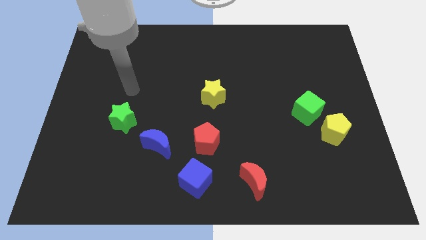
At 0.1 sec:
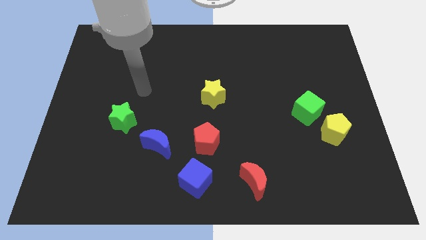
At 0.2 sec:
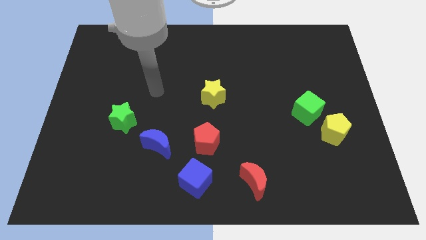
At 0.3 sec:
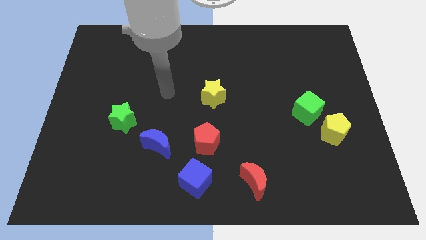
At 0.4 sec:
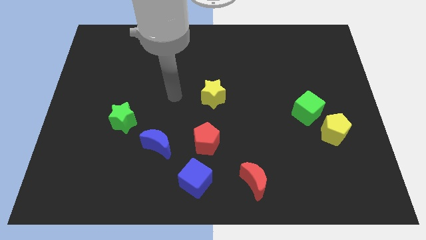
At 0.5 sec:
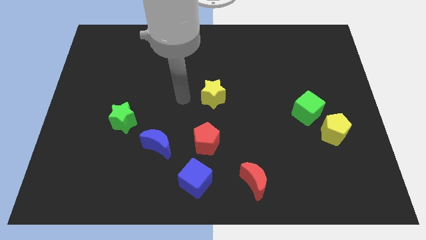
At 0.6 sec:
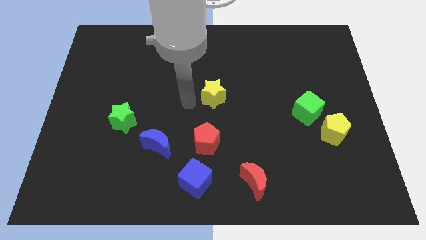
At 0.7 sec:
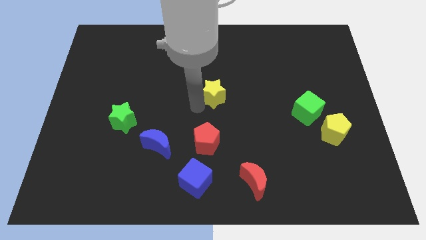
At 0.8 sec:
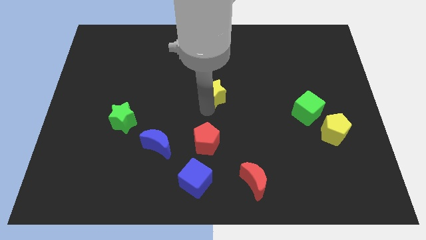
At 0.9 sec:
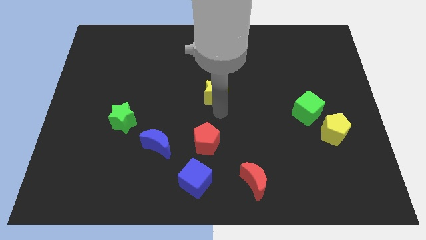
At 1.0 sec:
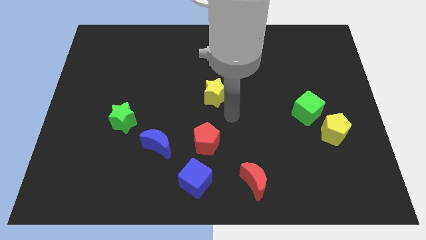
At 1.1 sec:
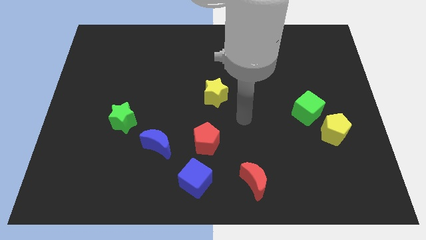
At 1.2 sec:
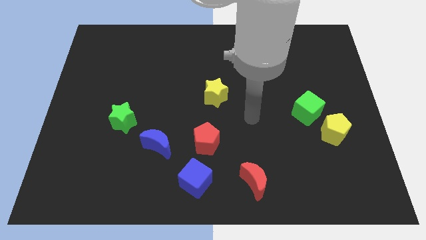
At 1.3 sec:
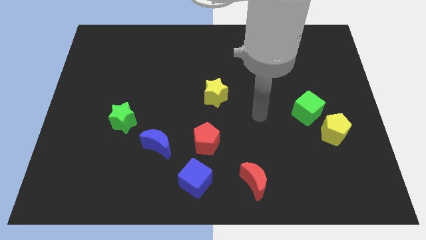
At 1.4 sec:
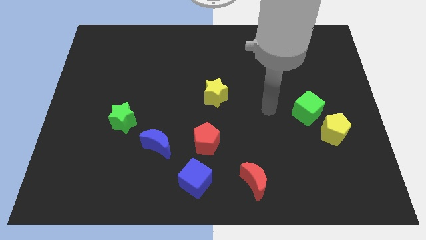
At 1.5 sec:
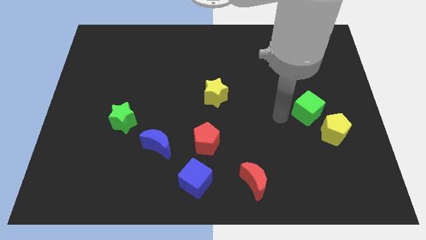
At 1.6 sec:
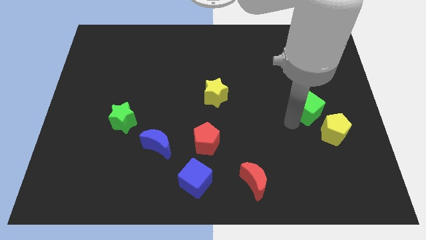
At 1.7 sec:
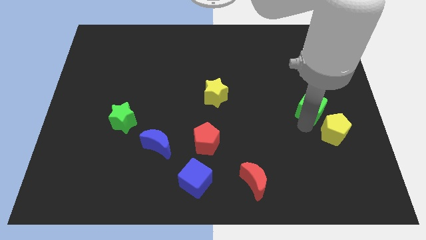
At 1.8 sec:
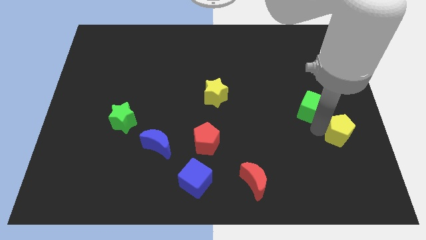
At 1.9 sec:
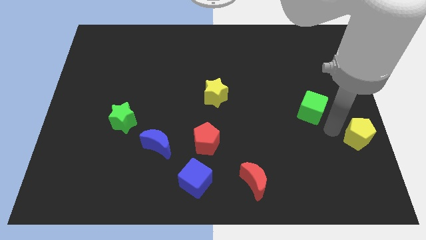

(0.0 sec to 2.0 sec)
pull the green cube apart from the yellow pentagon

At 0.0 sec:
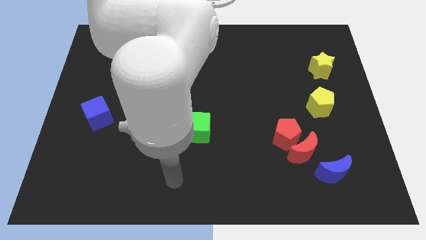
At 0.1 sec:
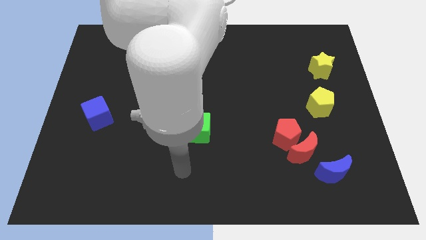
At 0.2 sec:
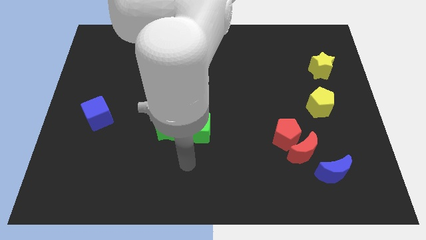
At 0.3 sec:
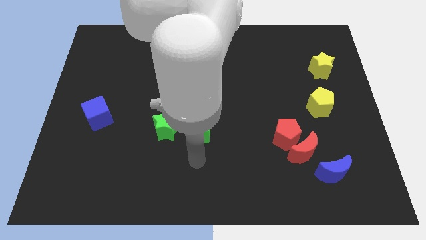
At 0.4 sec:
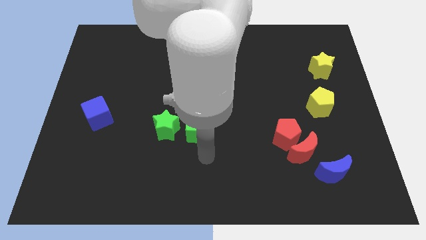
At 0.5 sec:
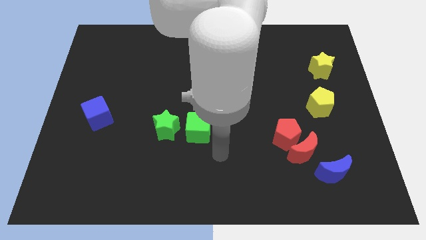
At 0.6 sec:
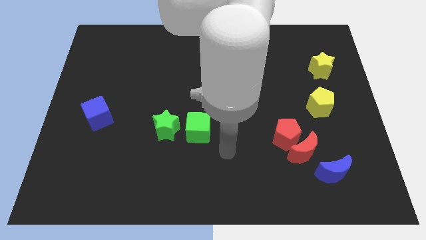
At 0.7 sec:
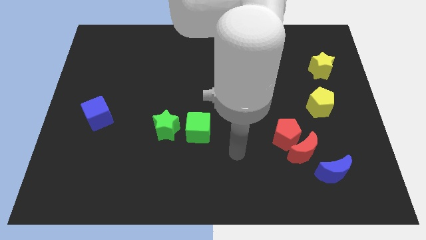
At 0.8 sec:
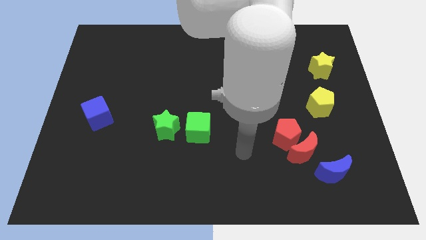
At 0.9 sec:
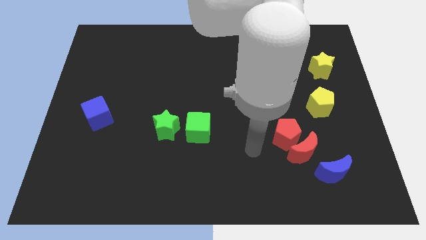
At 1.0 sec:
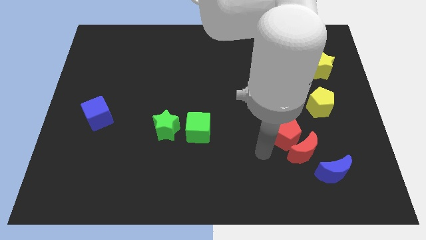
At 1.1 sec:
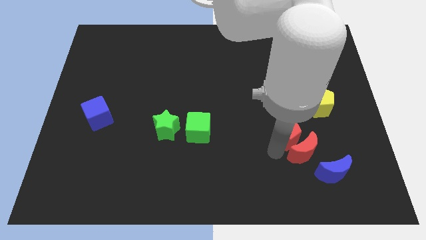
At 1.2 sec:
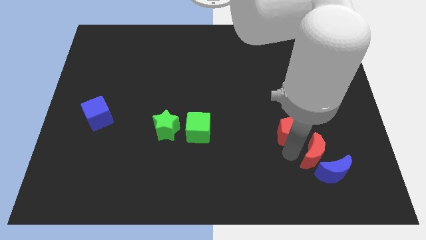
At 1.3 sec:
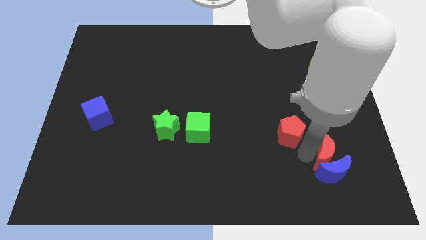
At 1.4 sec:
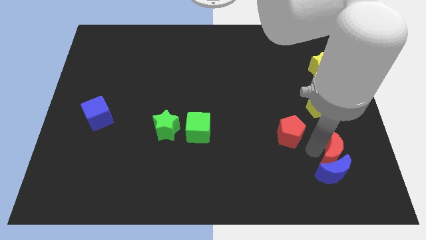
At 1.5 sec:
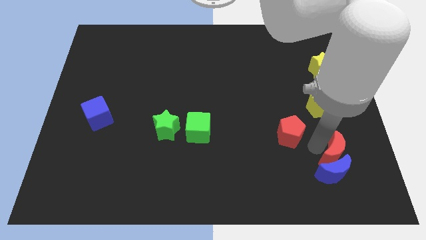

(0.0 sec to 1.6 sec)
pull the red pentagon apart from the red moon

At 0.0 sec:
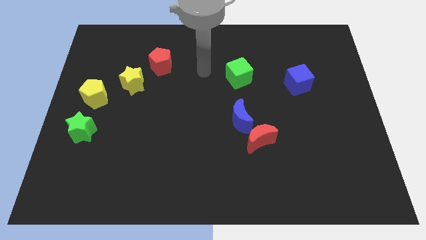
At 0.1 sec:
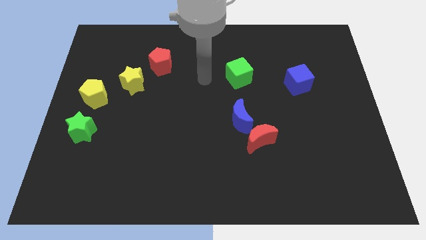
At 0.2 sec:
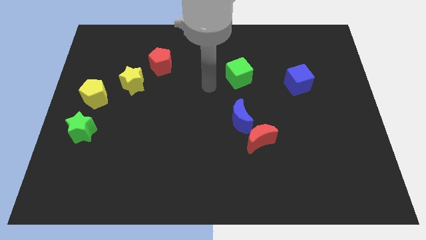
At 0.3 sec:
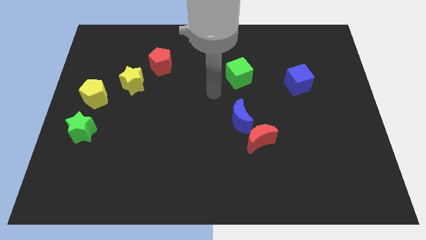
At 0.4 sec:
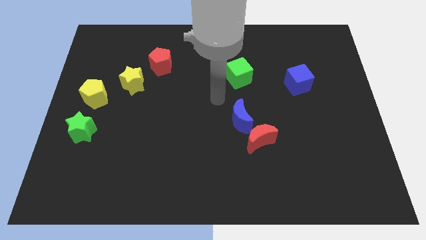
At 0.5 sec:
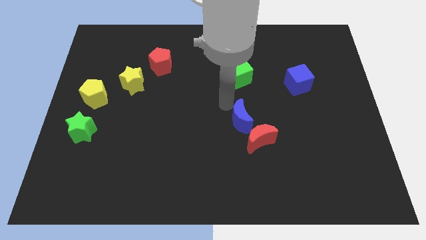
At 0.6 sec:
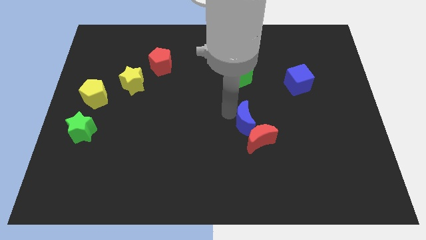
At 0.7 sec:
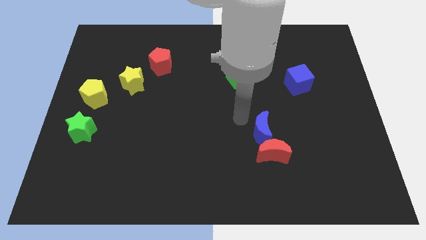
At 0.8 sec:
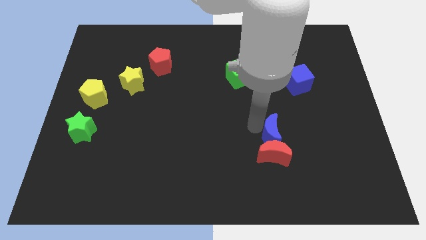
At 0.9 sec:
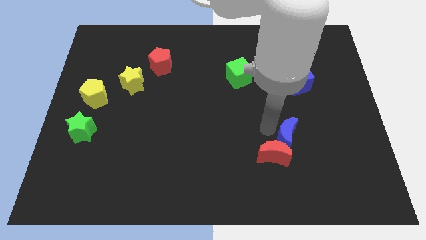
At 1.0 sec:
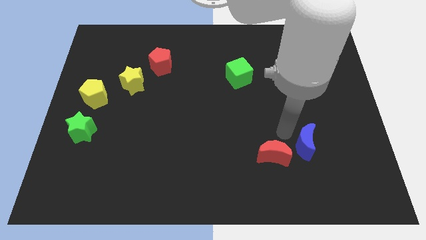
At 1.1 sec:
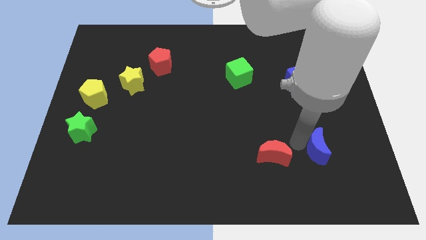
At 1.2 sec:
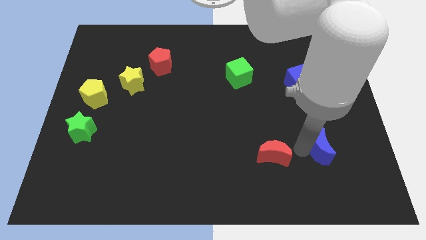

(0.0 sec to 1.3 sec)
separate the red moon from the blue moon

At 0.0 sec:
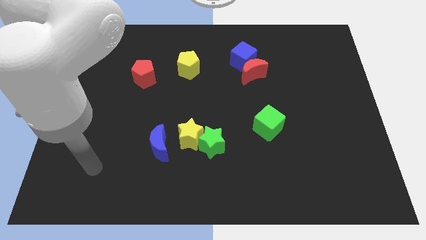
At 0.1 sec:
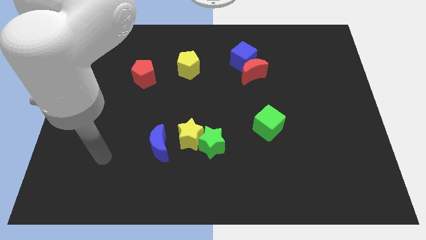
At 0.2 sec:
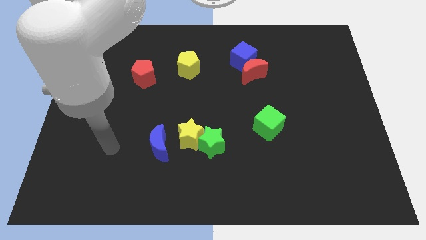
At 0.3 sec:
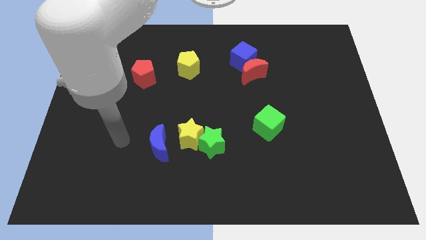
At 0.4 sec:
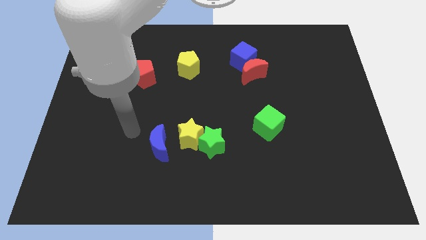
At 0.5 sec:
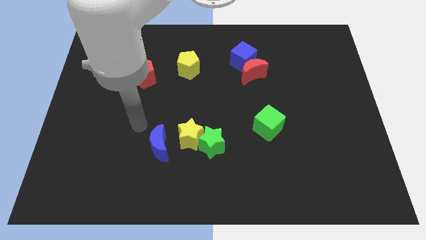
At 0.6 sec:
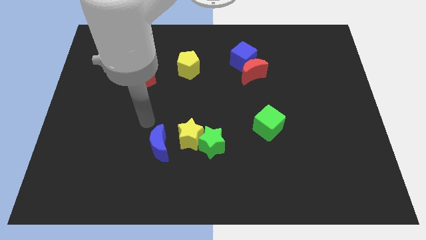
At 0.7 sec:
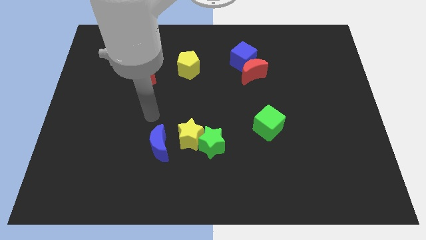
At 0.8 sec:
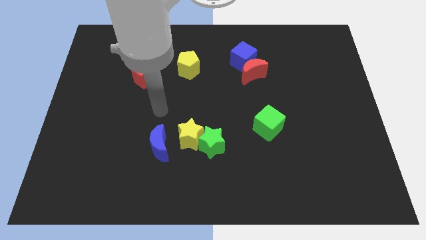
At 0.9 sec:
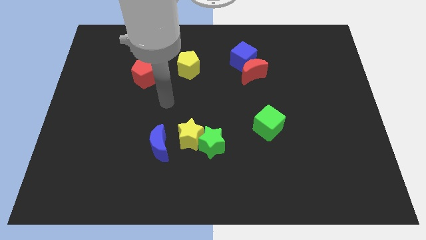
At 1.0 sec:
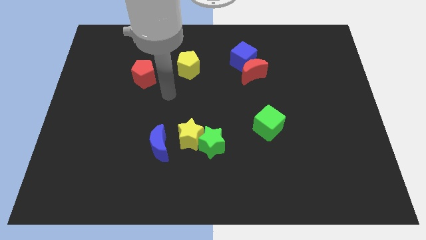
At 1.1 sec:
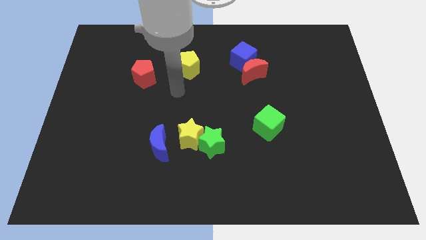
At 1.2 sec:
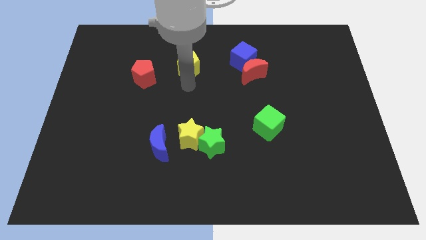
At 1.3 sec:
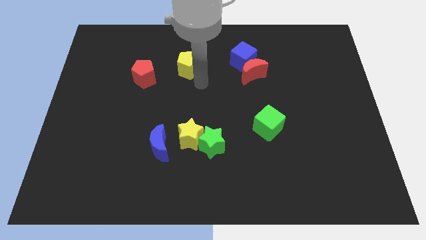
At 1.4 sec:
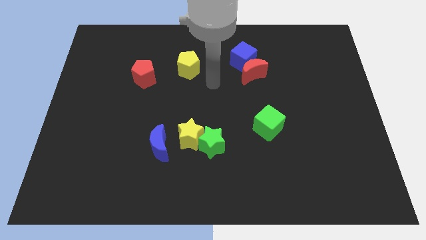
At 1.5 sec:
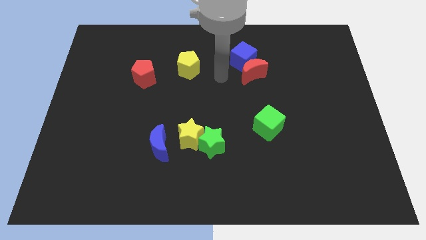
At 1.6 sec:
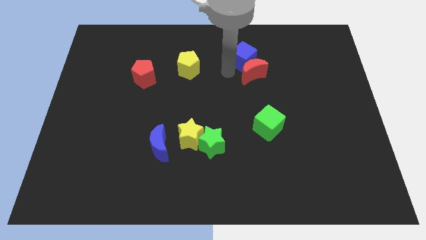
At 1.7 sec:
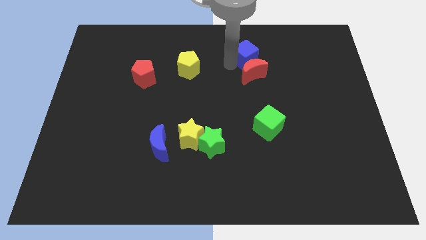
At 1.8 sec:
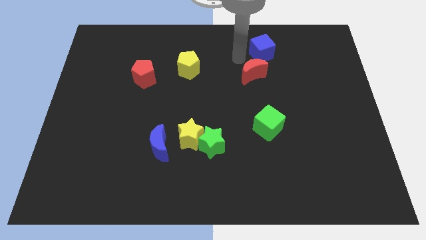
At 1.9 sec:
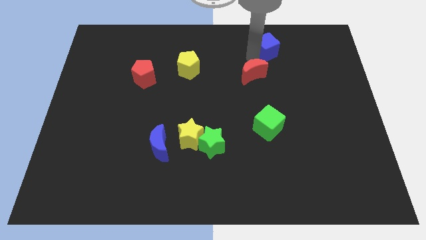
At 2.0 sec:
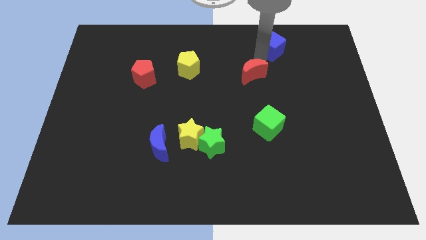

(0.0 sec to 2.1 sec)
move the red moon away from the blue cube

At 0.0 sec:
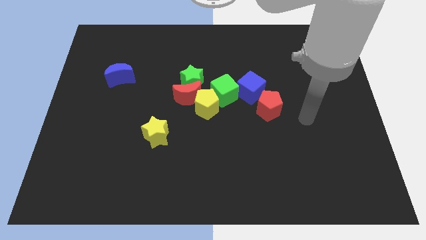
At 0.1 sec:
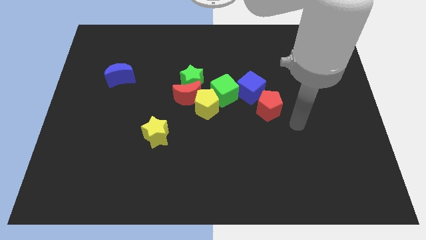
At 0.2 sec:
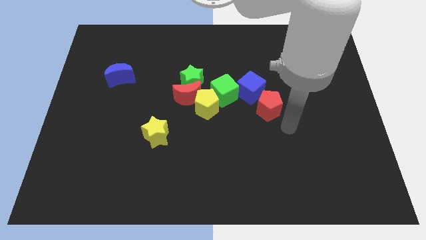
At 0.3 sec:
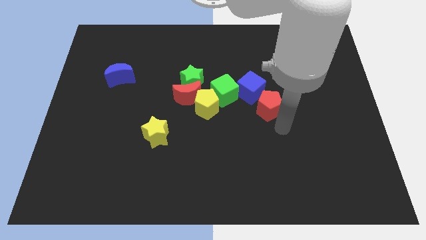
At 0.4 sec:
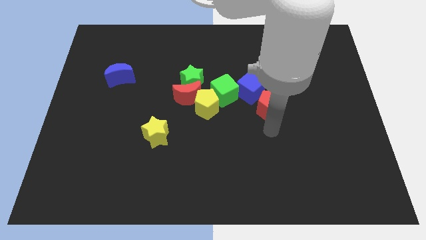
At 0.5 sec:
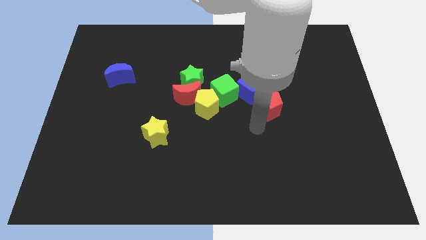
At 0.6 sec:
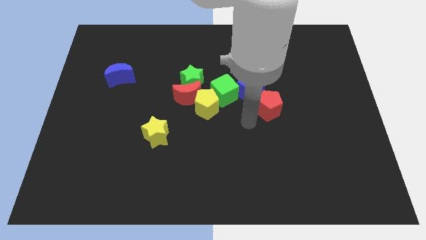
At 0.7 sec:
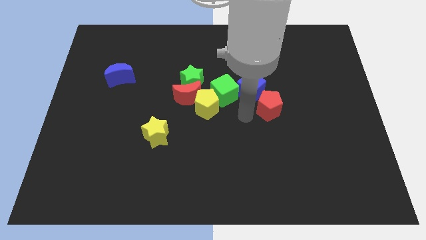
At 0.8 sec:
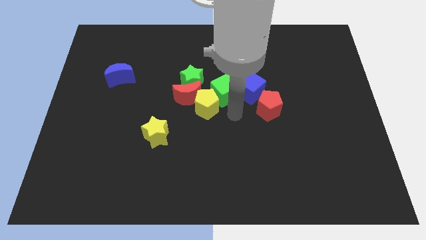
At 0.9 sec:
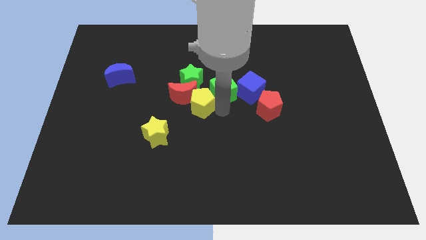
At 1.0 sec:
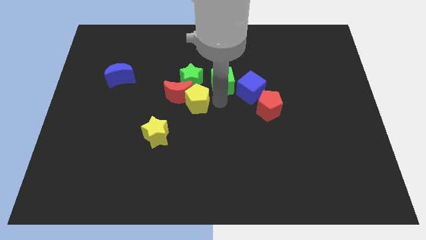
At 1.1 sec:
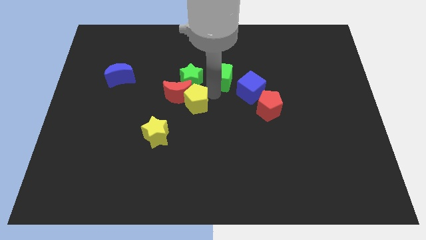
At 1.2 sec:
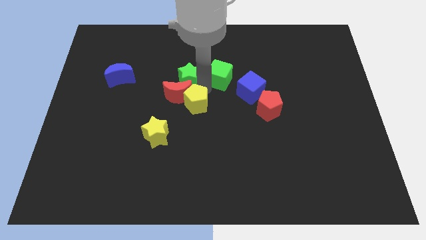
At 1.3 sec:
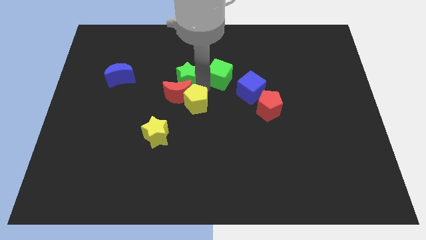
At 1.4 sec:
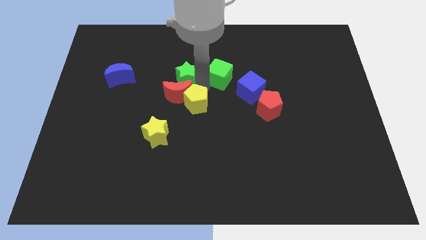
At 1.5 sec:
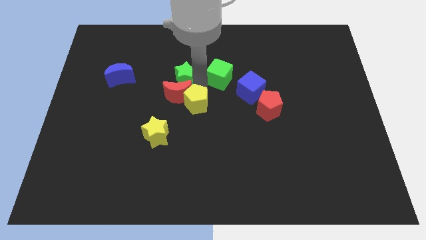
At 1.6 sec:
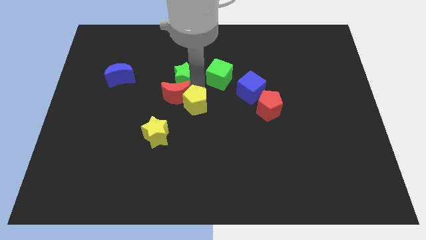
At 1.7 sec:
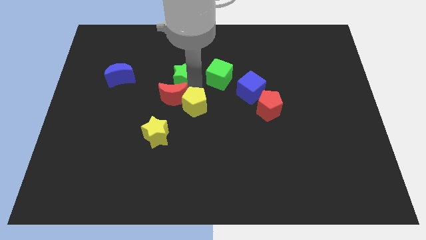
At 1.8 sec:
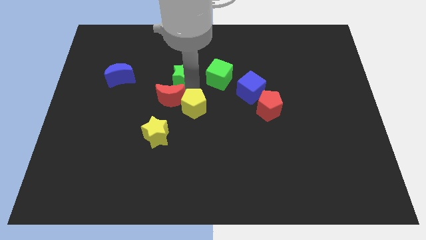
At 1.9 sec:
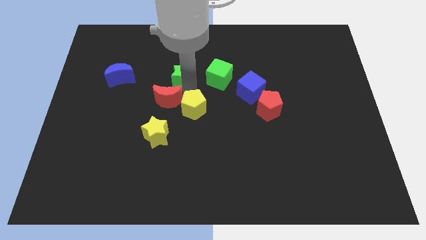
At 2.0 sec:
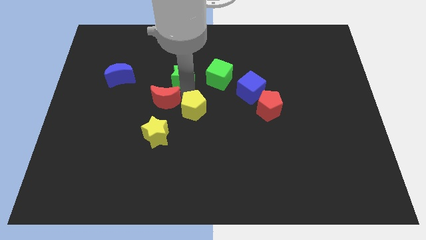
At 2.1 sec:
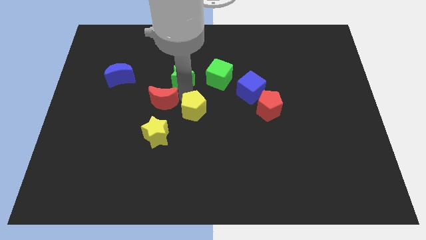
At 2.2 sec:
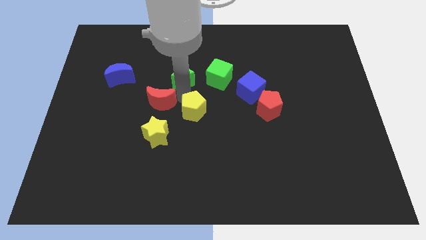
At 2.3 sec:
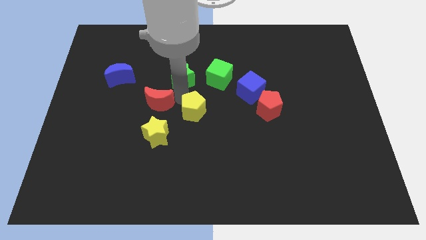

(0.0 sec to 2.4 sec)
separate the red moon from the green star, yellow pentagon, and green cube
